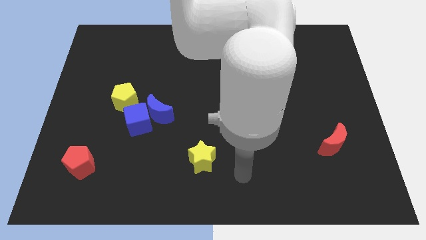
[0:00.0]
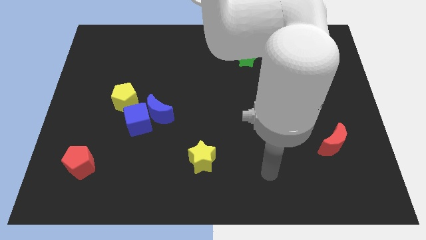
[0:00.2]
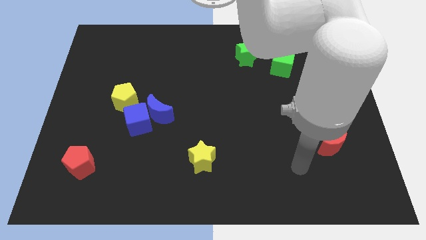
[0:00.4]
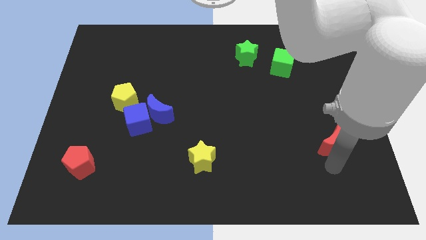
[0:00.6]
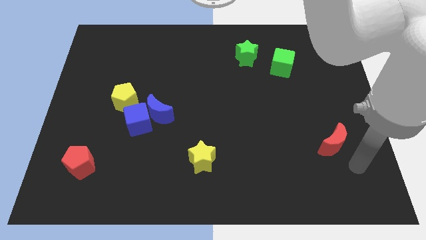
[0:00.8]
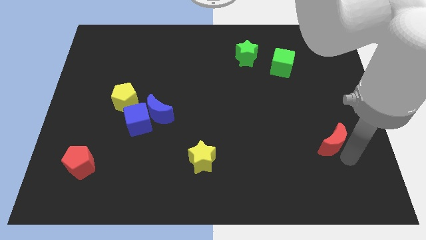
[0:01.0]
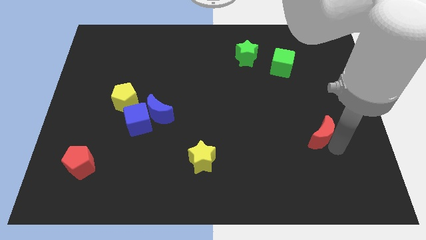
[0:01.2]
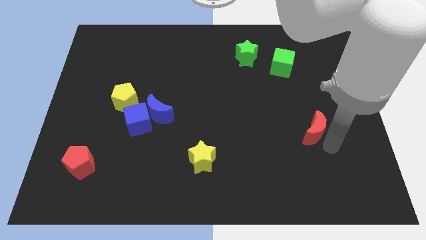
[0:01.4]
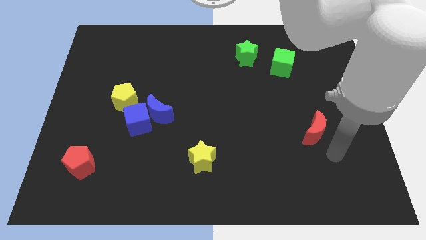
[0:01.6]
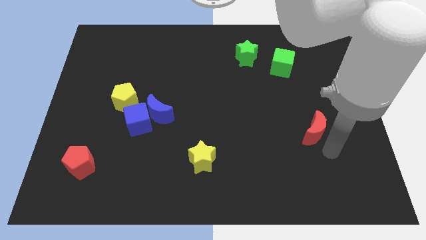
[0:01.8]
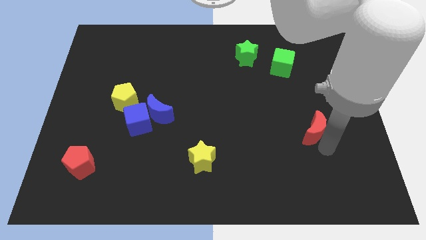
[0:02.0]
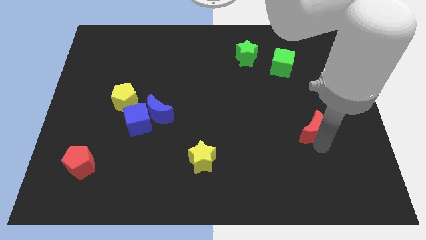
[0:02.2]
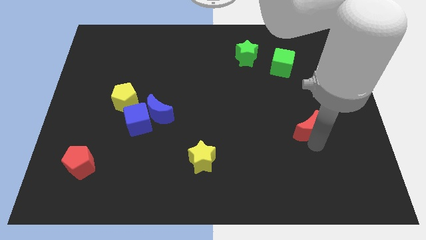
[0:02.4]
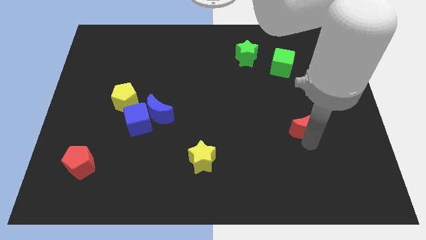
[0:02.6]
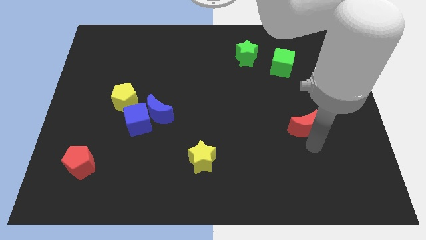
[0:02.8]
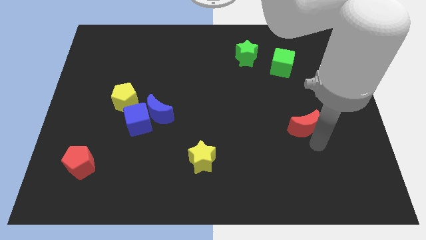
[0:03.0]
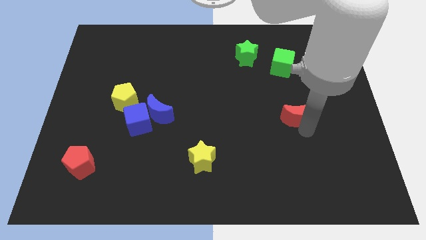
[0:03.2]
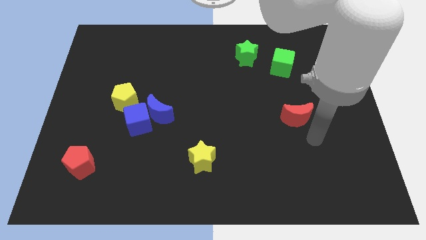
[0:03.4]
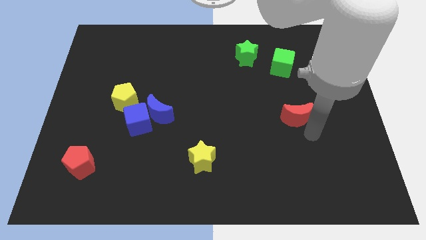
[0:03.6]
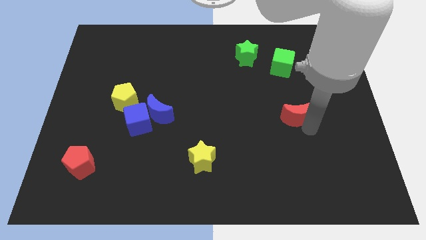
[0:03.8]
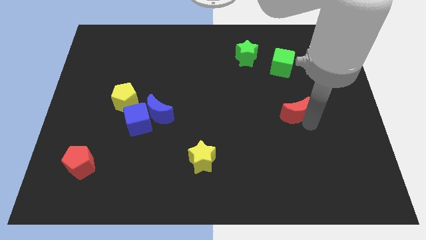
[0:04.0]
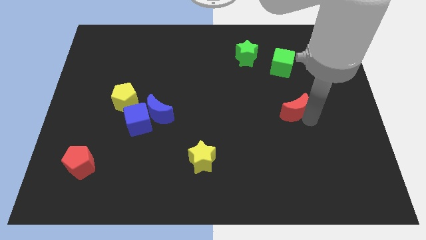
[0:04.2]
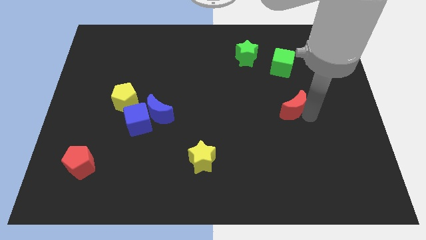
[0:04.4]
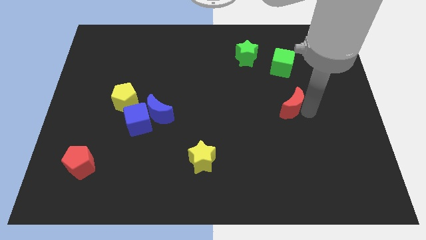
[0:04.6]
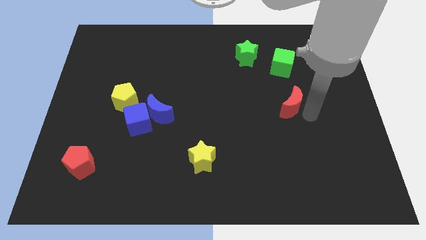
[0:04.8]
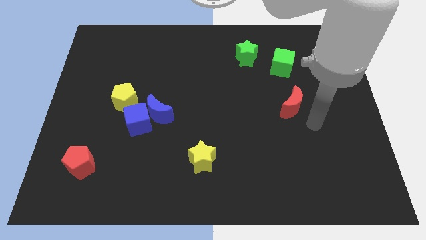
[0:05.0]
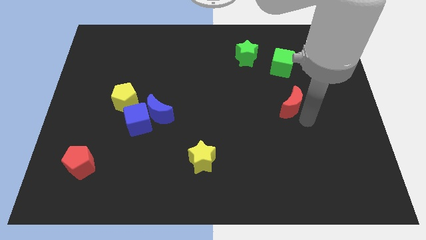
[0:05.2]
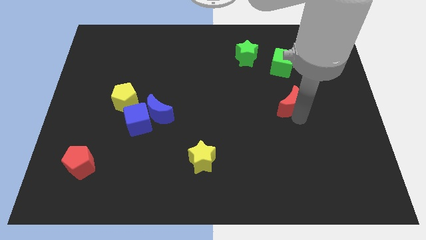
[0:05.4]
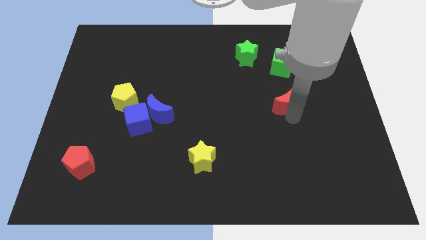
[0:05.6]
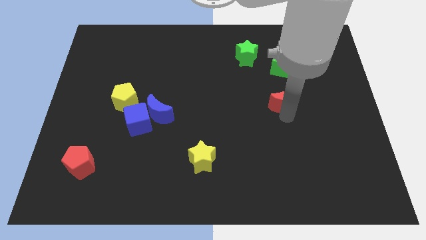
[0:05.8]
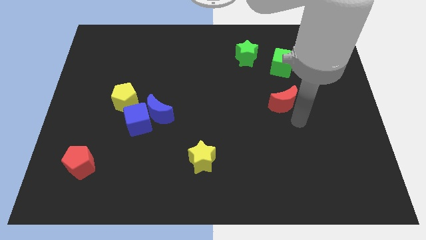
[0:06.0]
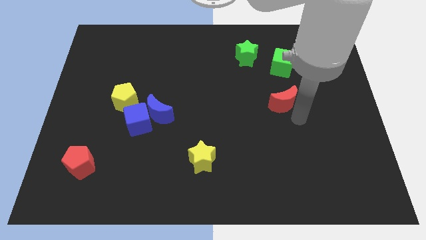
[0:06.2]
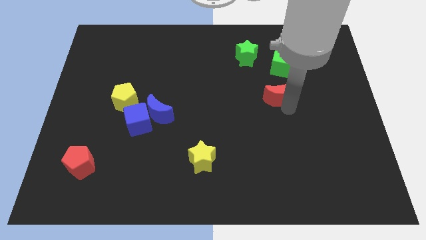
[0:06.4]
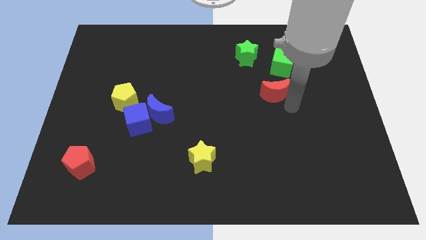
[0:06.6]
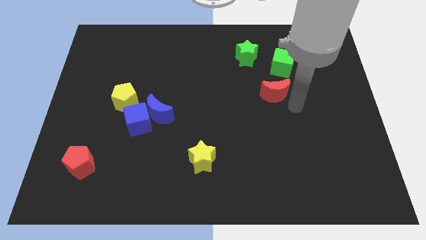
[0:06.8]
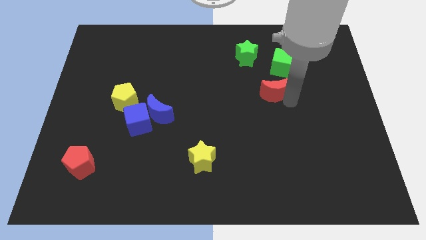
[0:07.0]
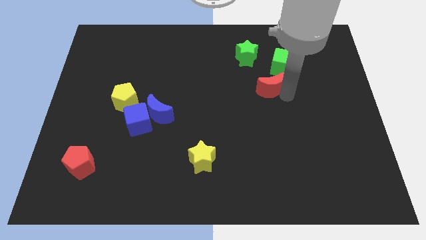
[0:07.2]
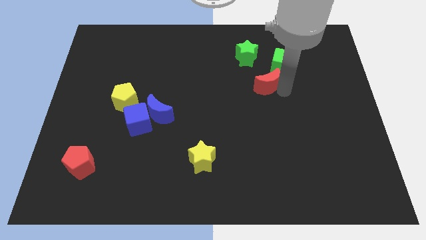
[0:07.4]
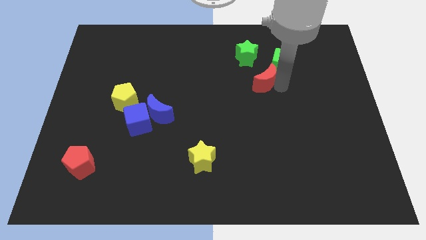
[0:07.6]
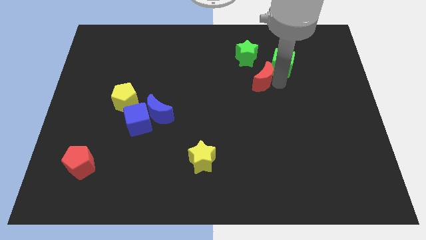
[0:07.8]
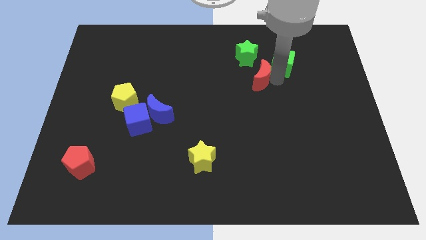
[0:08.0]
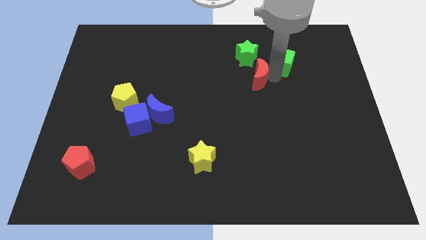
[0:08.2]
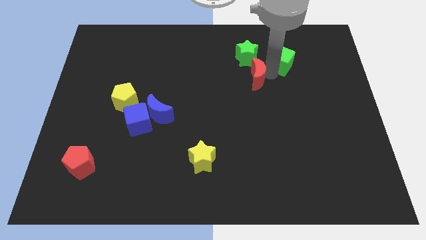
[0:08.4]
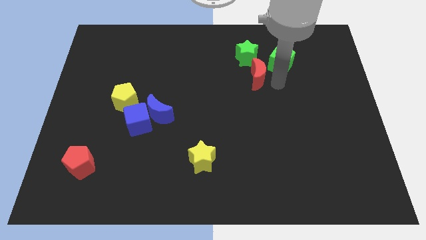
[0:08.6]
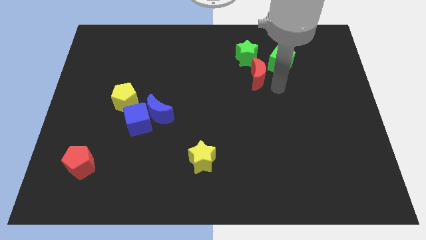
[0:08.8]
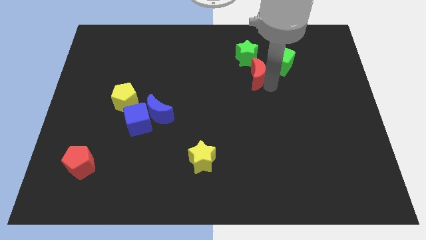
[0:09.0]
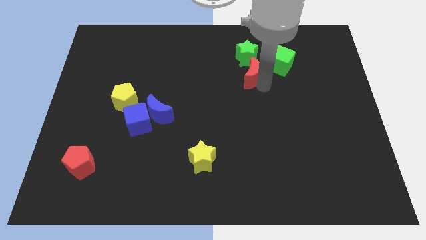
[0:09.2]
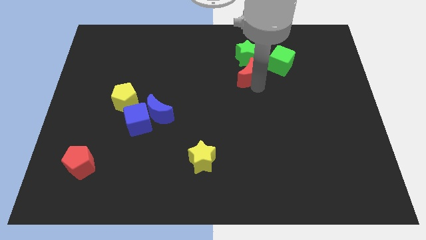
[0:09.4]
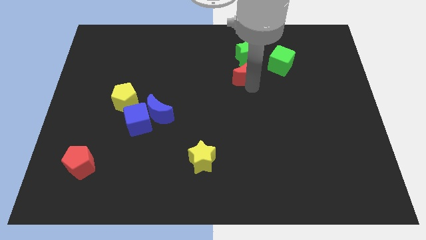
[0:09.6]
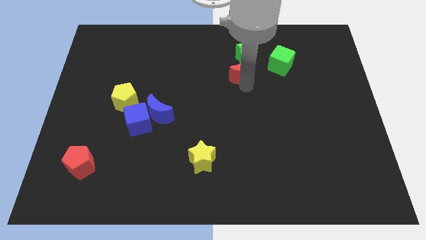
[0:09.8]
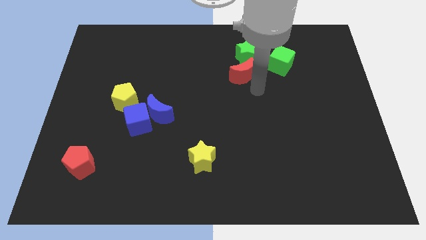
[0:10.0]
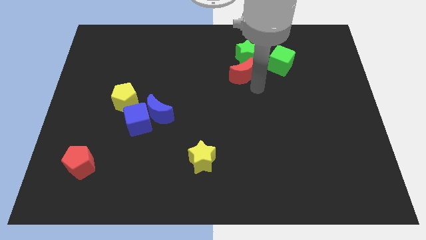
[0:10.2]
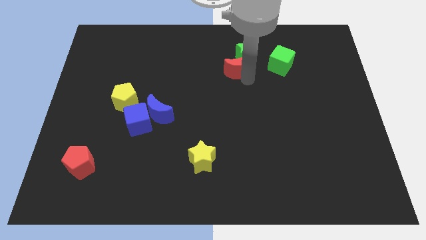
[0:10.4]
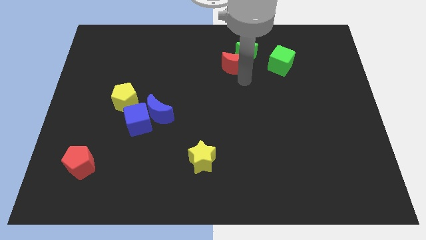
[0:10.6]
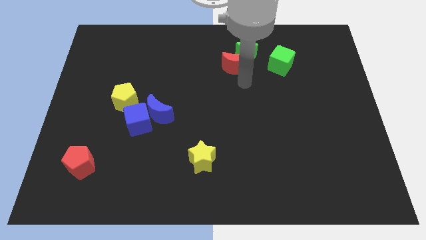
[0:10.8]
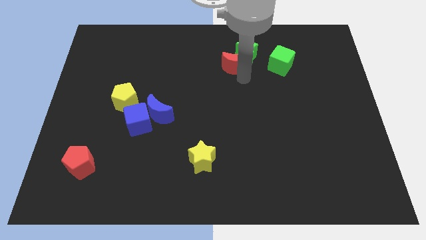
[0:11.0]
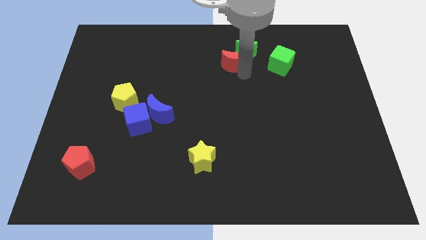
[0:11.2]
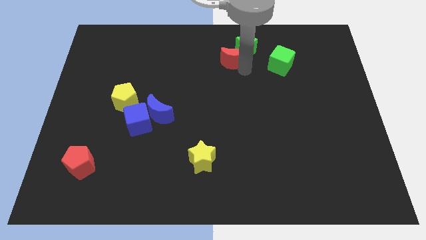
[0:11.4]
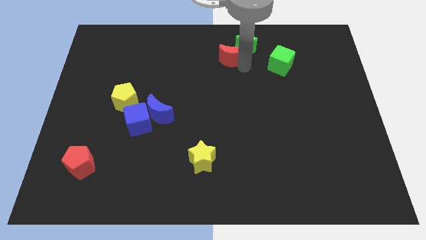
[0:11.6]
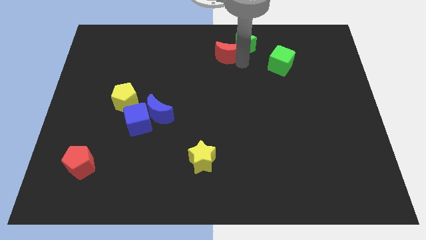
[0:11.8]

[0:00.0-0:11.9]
put the red moon to the top

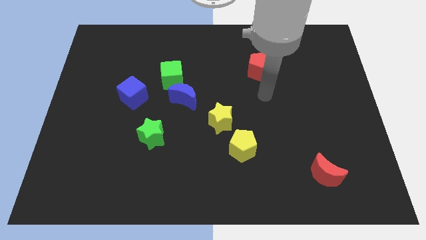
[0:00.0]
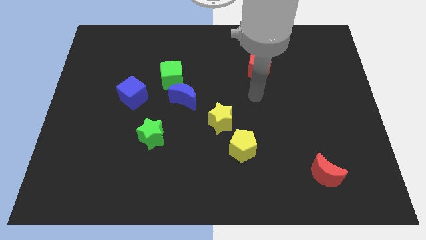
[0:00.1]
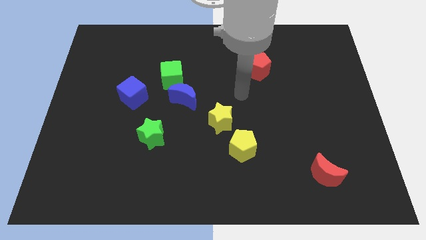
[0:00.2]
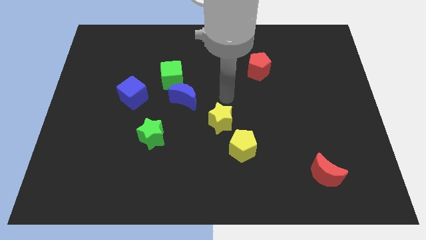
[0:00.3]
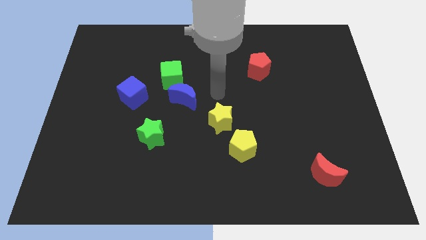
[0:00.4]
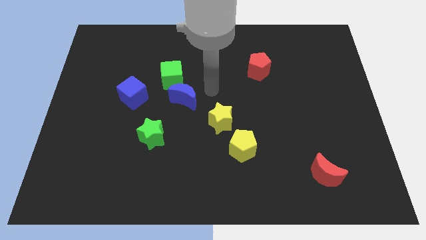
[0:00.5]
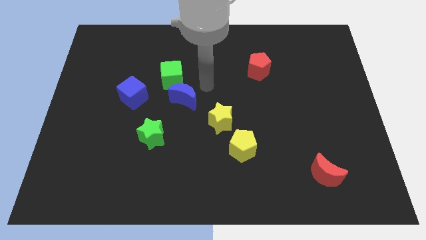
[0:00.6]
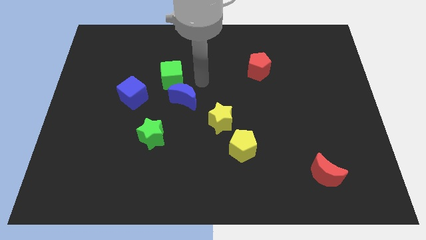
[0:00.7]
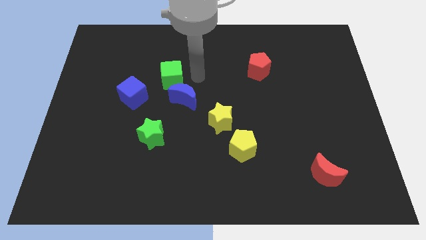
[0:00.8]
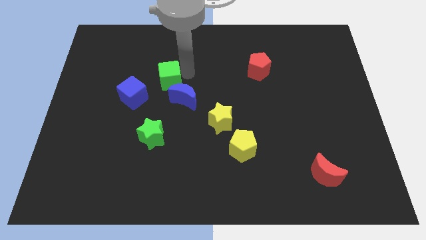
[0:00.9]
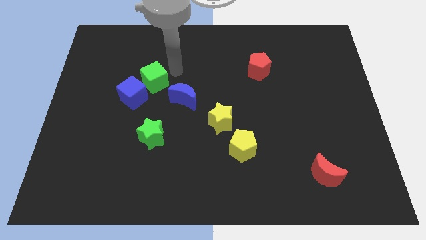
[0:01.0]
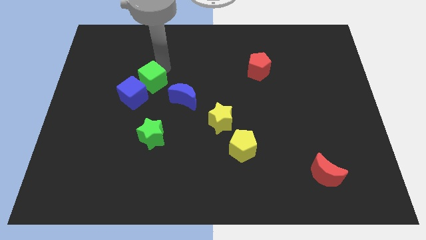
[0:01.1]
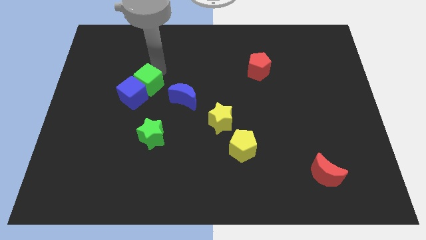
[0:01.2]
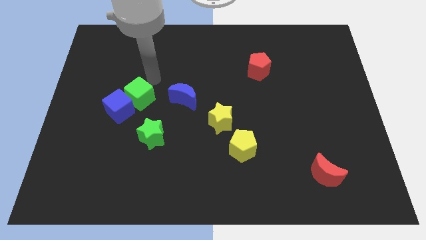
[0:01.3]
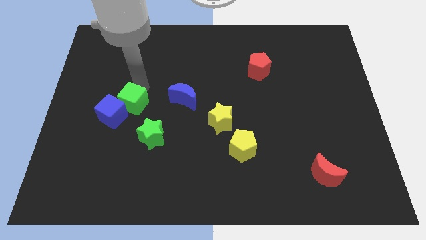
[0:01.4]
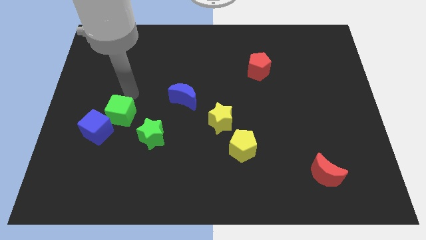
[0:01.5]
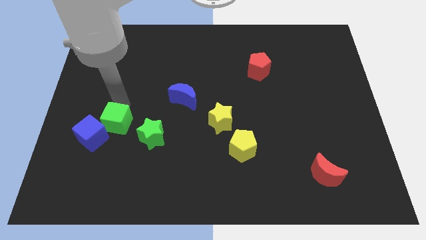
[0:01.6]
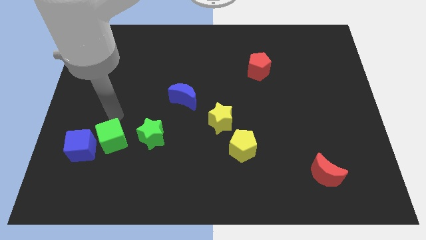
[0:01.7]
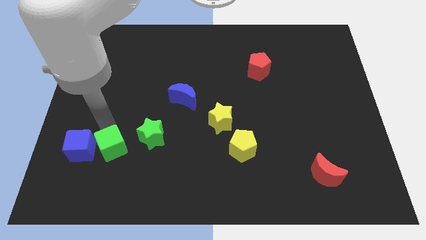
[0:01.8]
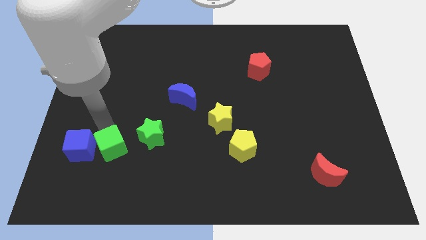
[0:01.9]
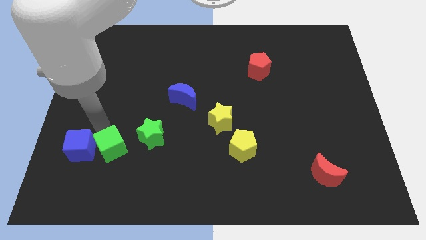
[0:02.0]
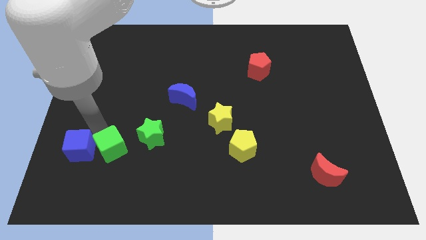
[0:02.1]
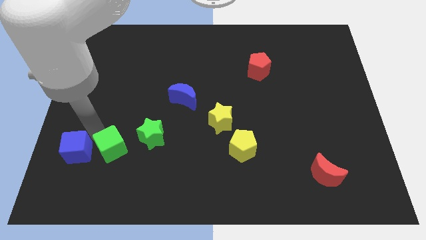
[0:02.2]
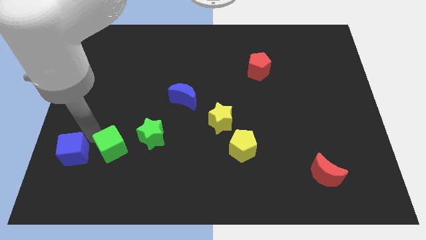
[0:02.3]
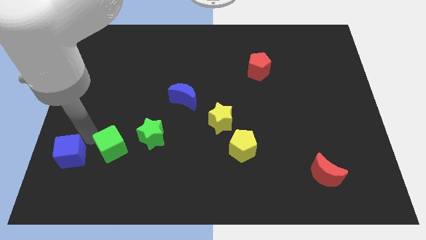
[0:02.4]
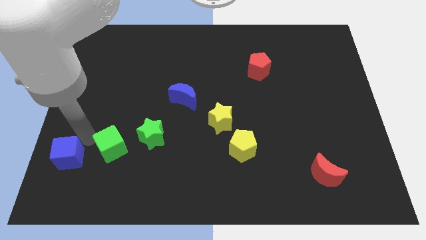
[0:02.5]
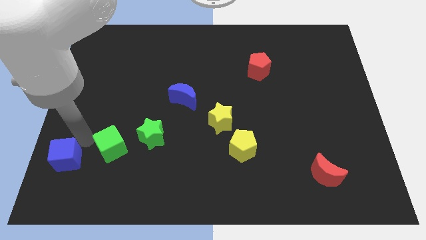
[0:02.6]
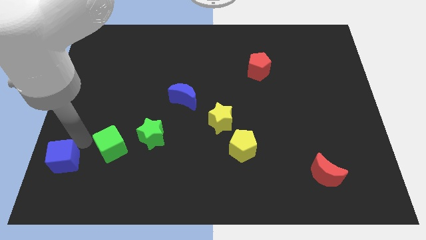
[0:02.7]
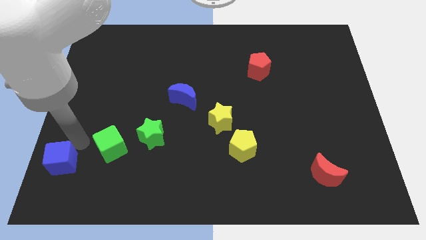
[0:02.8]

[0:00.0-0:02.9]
put the blue cube to the bottom left
